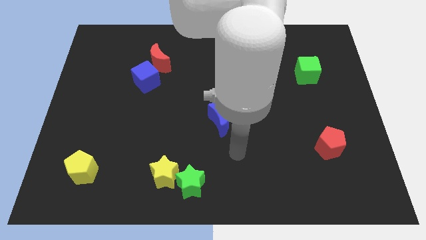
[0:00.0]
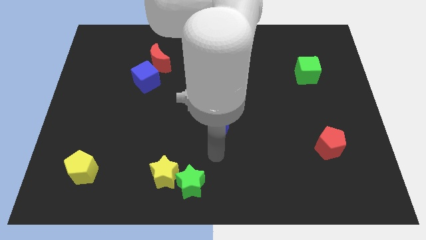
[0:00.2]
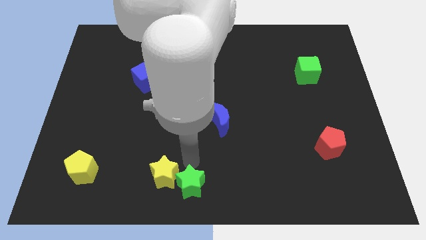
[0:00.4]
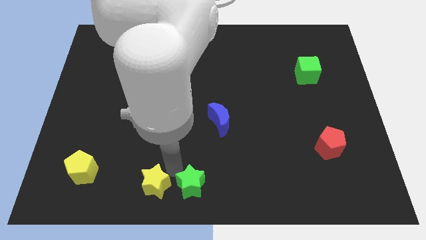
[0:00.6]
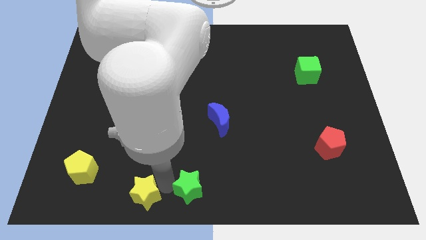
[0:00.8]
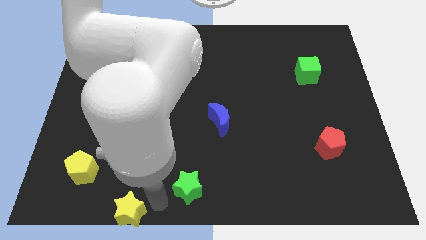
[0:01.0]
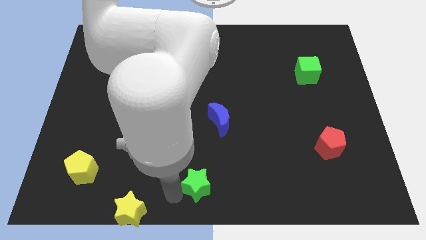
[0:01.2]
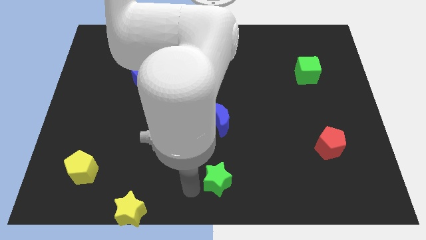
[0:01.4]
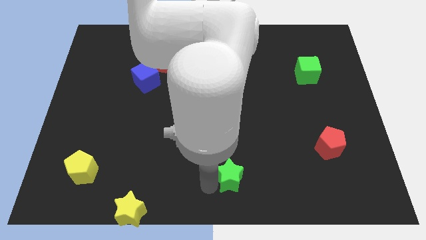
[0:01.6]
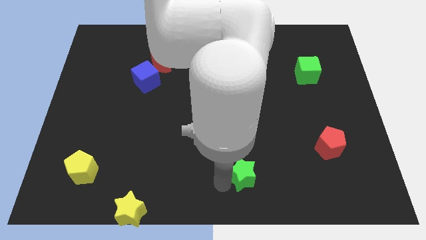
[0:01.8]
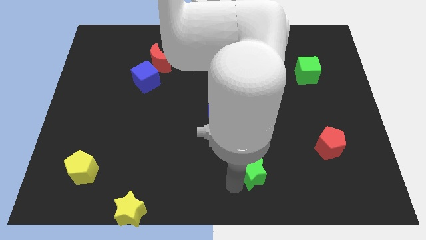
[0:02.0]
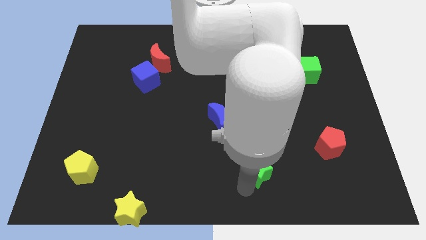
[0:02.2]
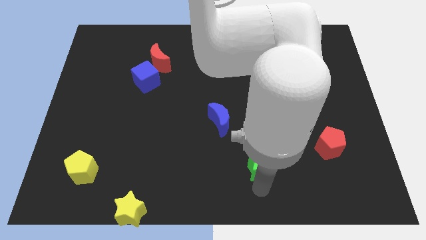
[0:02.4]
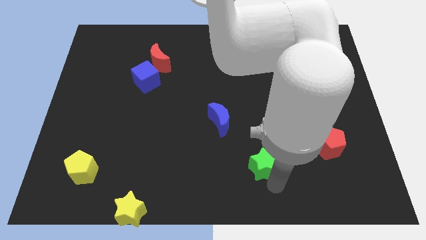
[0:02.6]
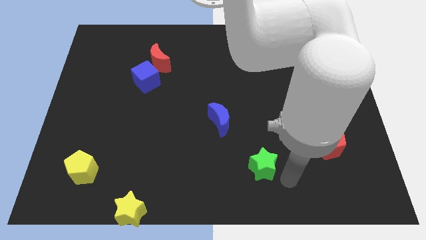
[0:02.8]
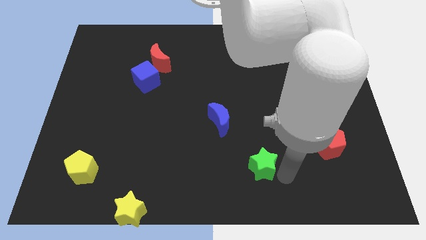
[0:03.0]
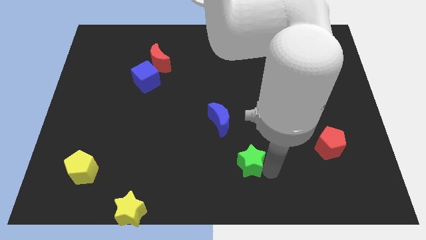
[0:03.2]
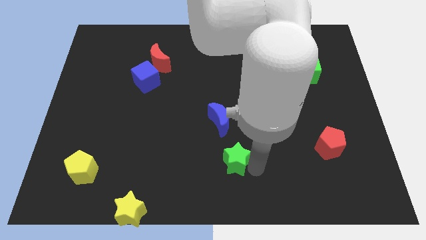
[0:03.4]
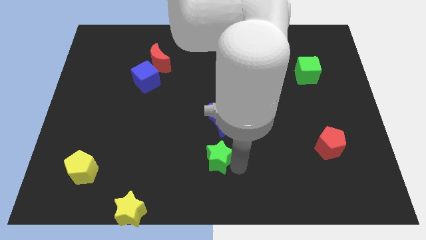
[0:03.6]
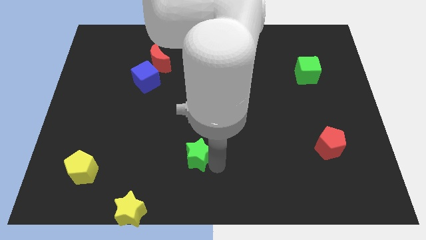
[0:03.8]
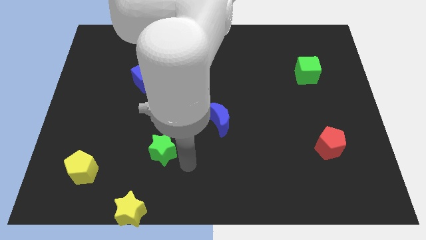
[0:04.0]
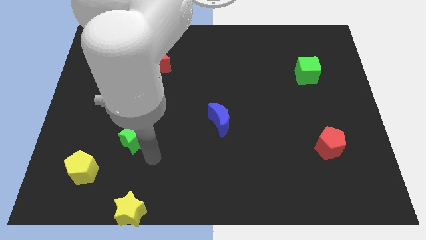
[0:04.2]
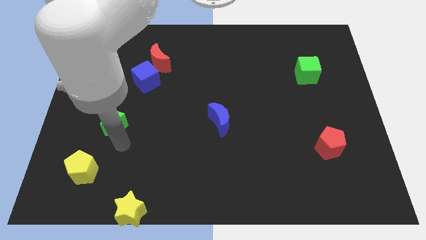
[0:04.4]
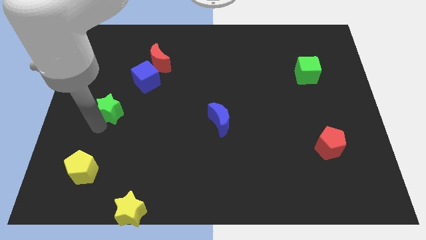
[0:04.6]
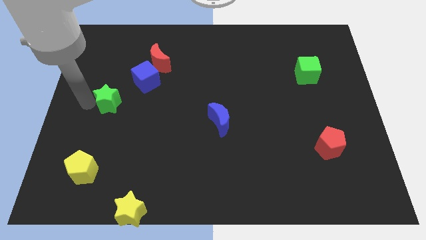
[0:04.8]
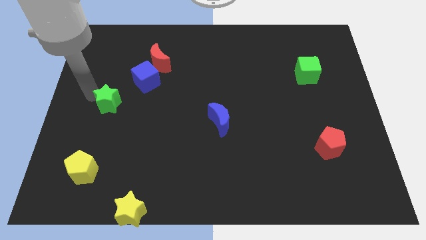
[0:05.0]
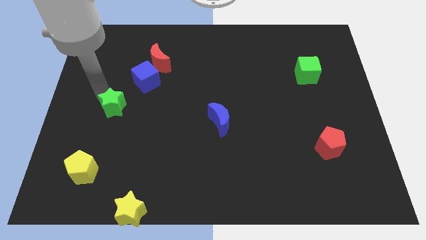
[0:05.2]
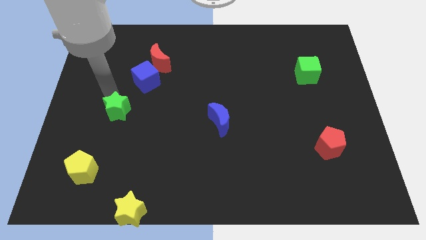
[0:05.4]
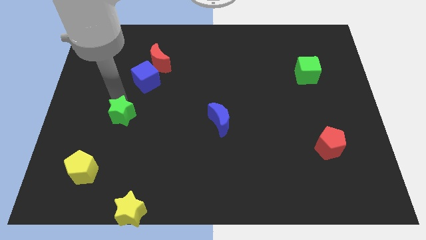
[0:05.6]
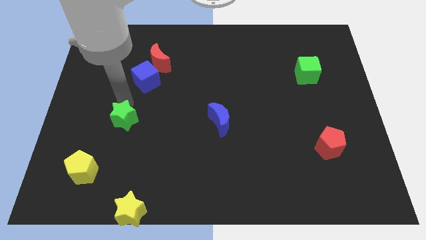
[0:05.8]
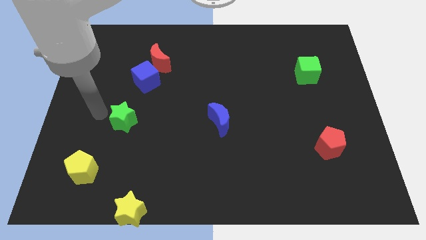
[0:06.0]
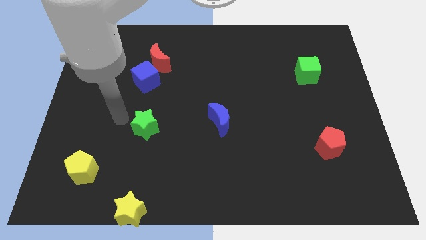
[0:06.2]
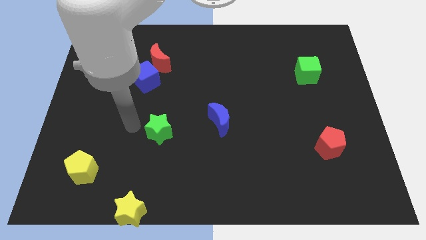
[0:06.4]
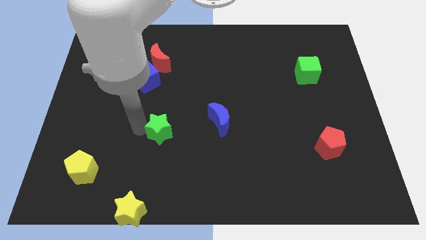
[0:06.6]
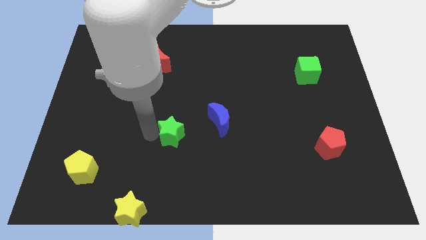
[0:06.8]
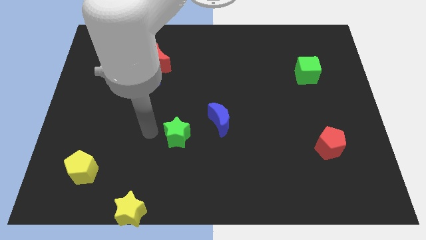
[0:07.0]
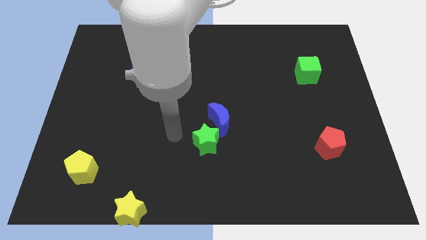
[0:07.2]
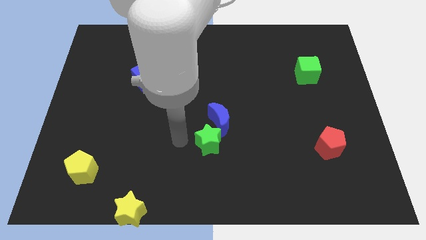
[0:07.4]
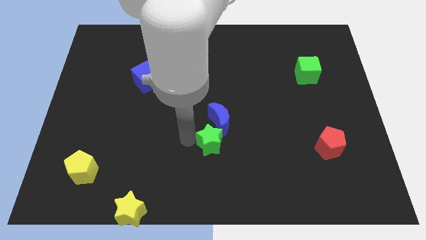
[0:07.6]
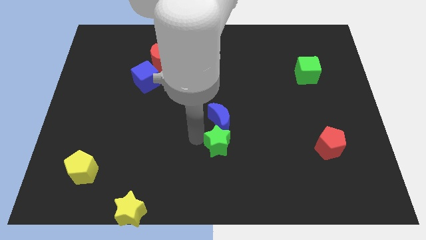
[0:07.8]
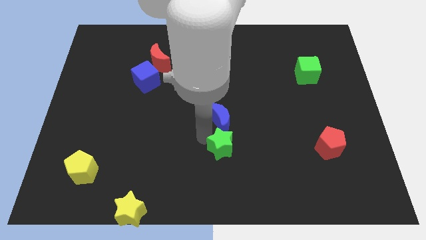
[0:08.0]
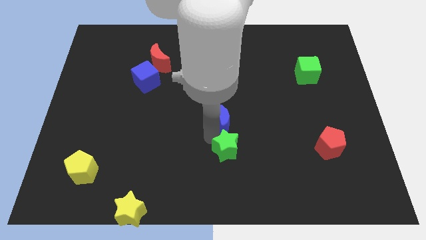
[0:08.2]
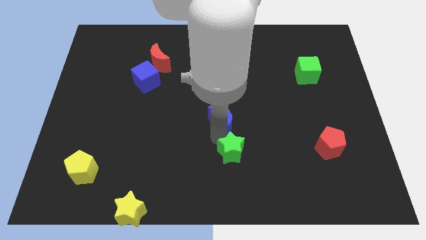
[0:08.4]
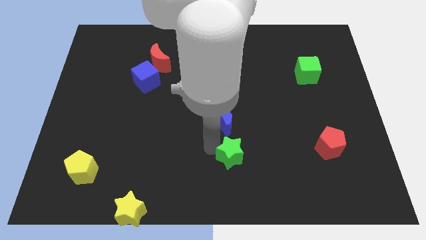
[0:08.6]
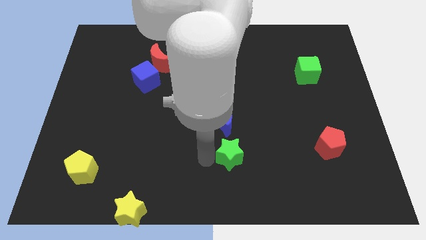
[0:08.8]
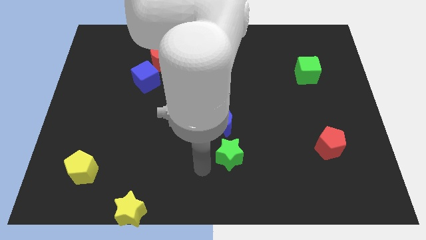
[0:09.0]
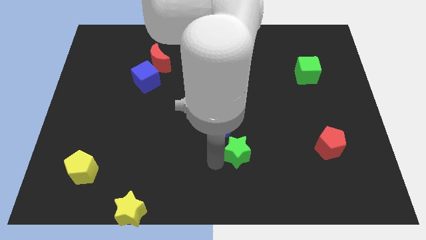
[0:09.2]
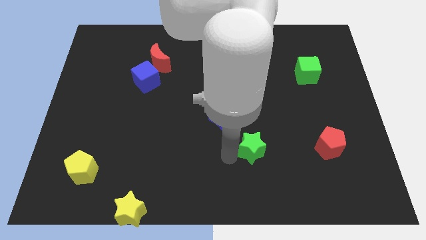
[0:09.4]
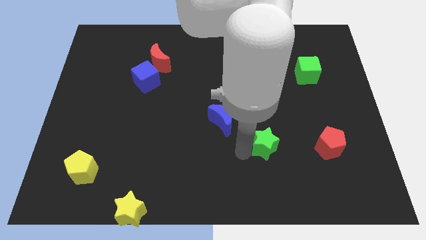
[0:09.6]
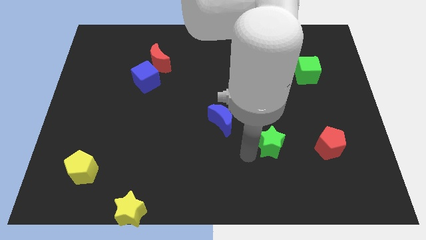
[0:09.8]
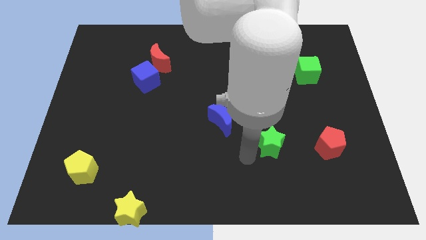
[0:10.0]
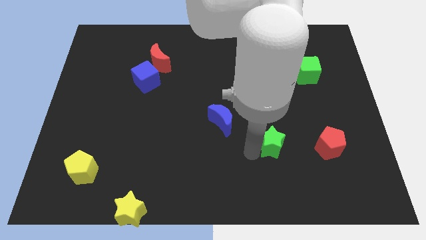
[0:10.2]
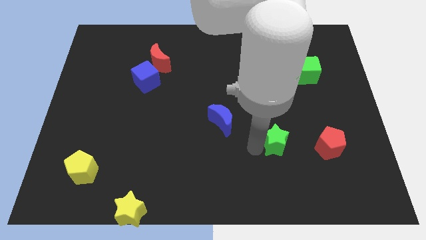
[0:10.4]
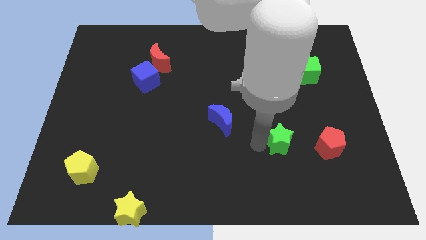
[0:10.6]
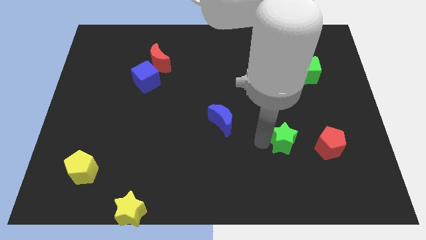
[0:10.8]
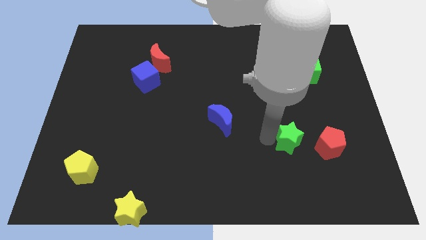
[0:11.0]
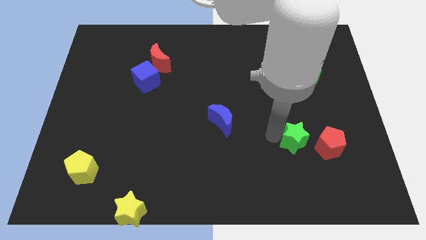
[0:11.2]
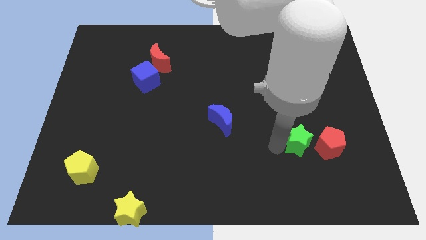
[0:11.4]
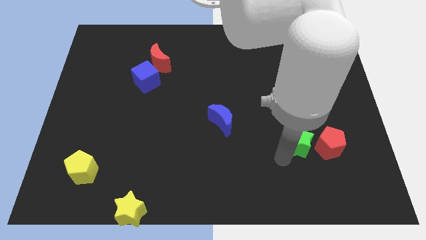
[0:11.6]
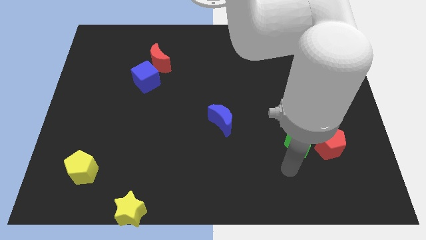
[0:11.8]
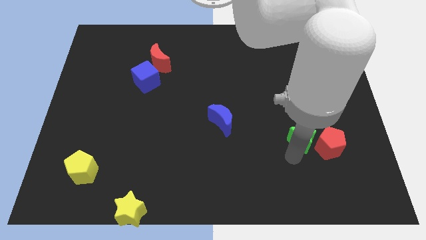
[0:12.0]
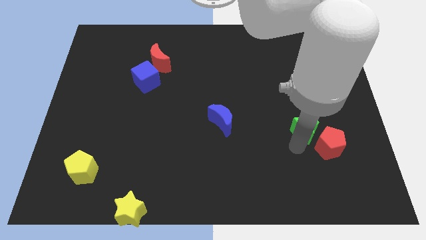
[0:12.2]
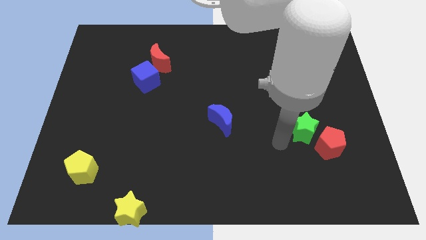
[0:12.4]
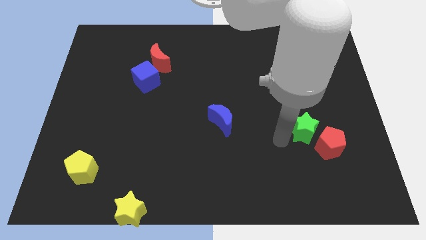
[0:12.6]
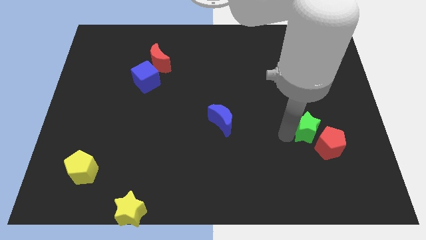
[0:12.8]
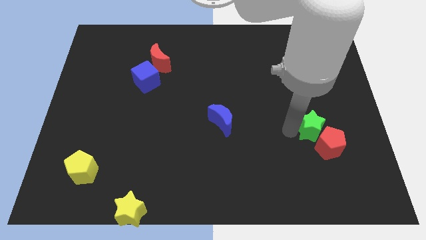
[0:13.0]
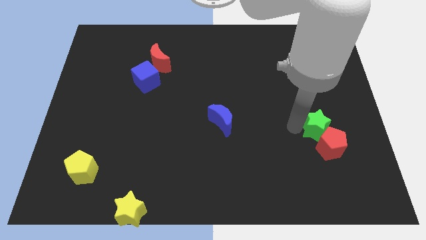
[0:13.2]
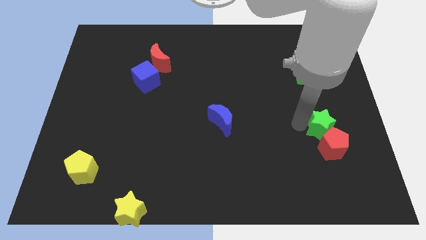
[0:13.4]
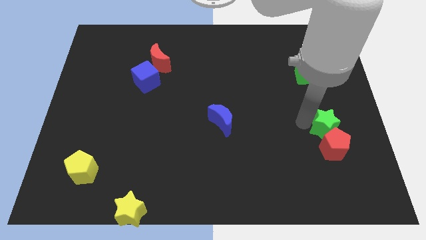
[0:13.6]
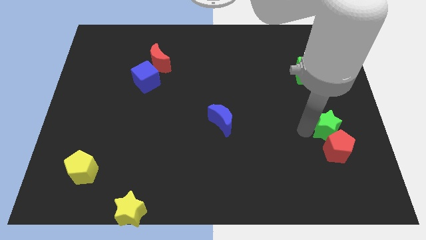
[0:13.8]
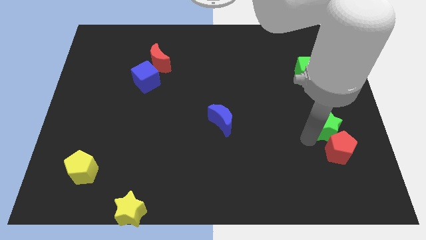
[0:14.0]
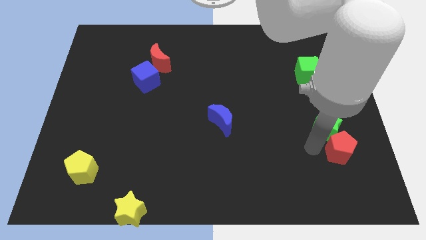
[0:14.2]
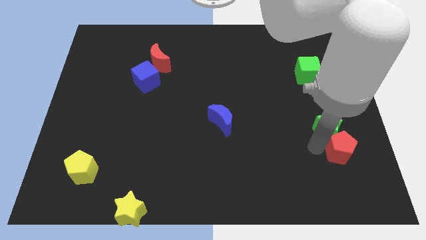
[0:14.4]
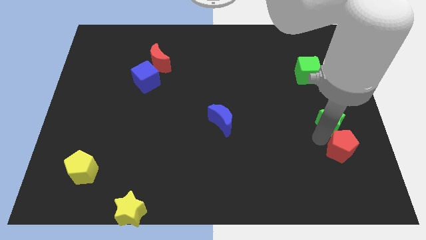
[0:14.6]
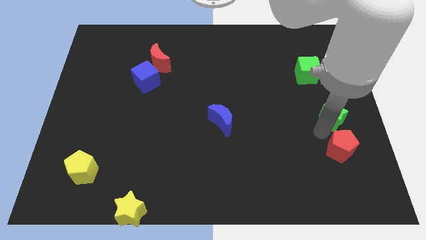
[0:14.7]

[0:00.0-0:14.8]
move the green star to the right side of the board
